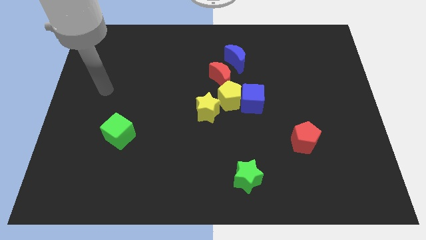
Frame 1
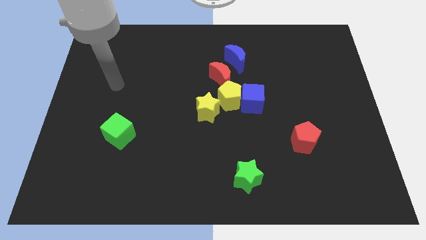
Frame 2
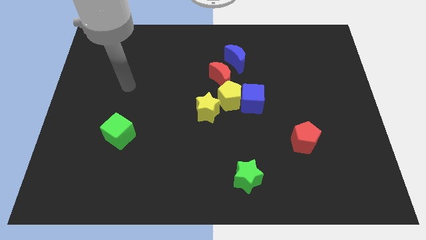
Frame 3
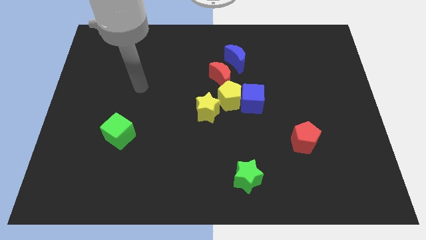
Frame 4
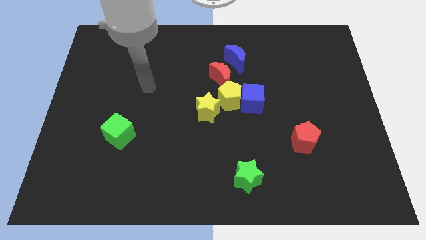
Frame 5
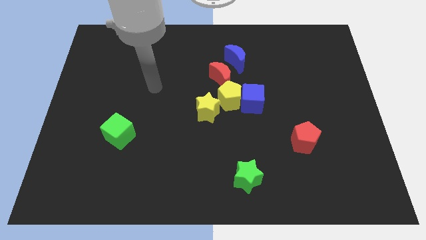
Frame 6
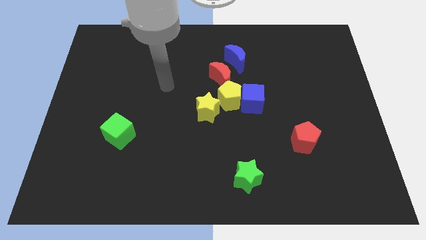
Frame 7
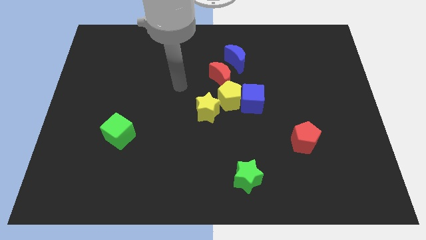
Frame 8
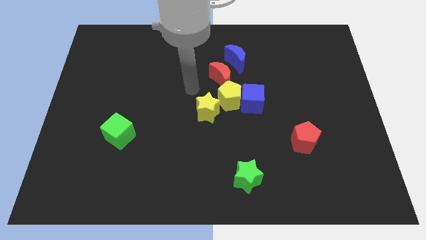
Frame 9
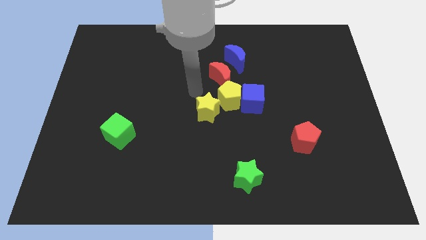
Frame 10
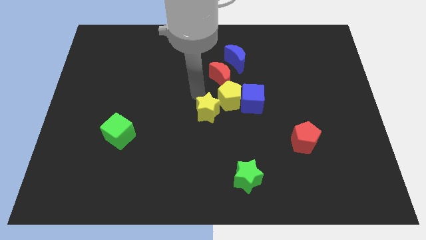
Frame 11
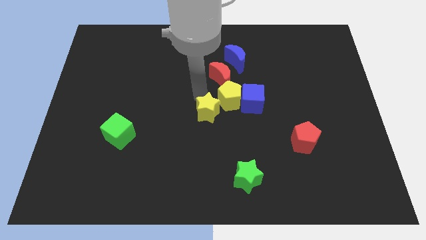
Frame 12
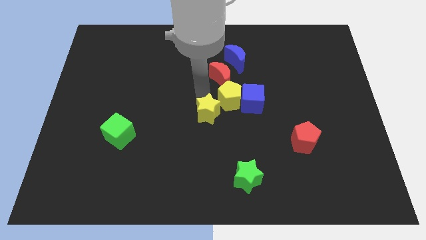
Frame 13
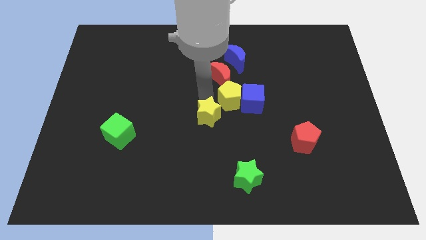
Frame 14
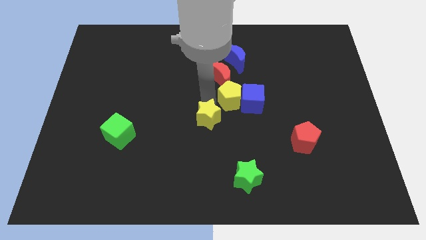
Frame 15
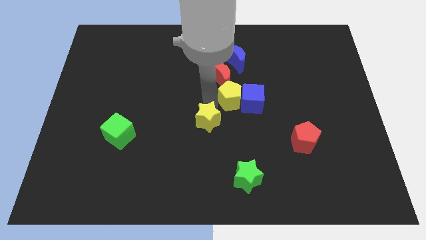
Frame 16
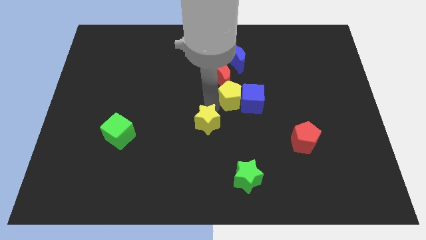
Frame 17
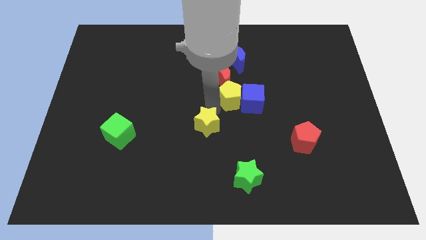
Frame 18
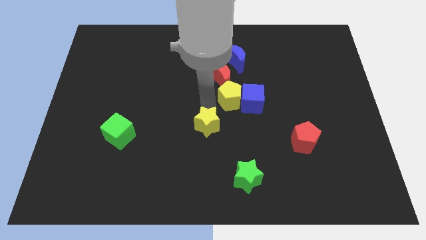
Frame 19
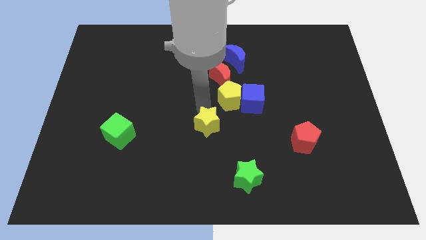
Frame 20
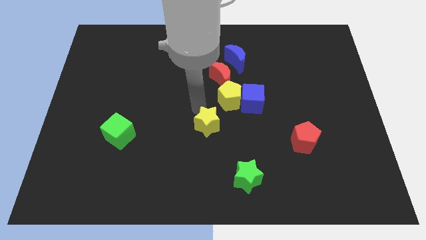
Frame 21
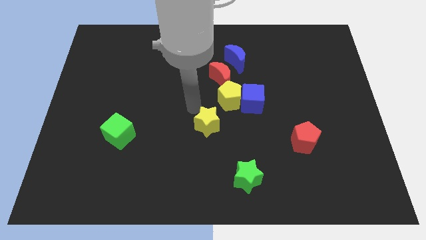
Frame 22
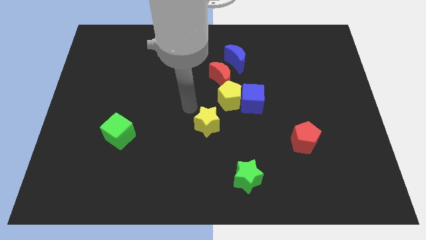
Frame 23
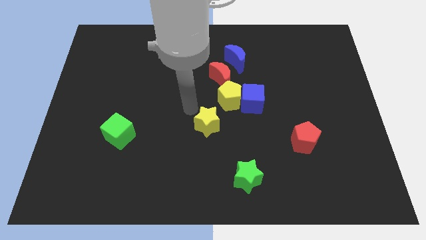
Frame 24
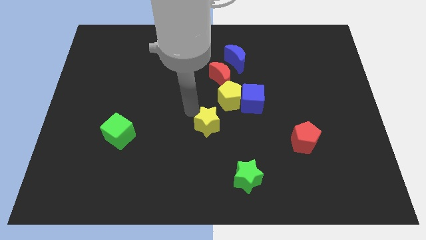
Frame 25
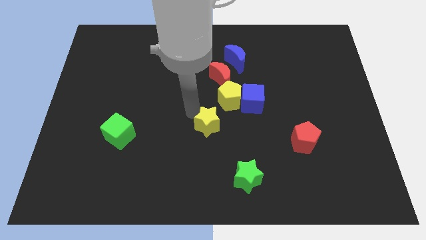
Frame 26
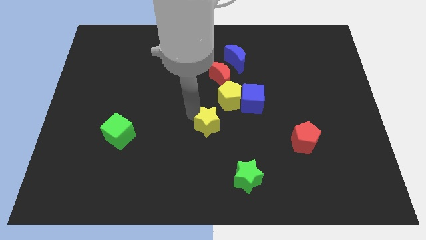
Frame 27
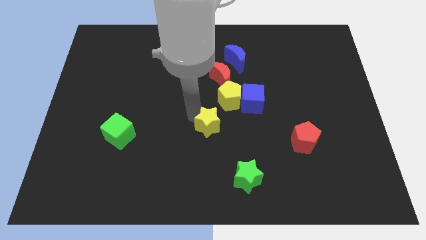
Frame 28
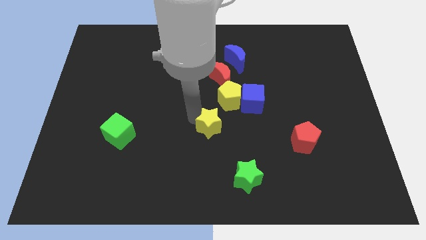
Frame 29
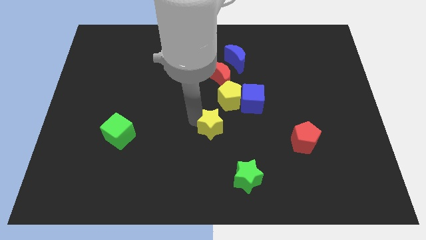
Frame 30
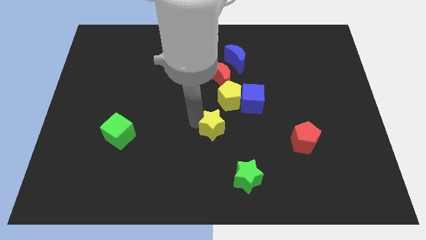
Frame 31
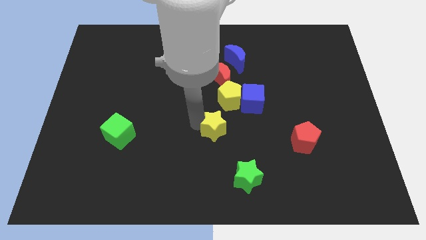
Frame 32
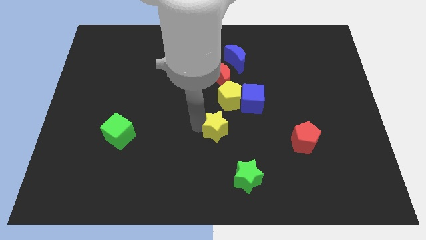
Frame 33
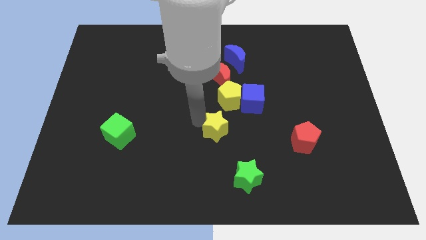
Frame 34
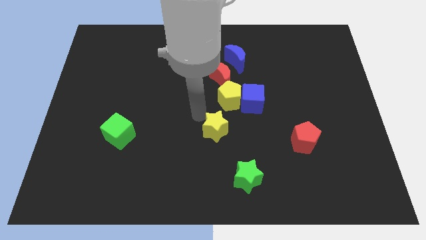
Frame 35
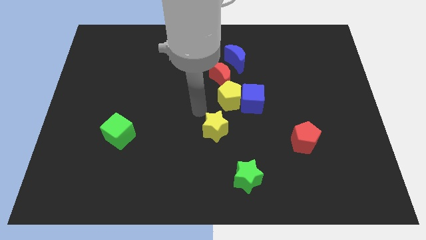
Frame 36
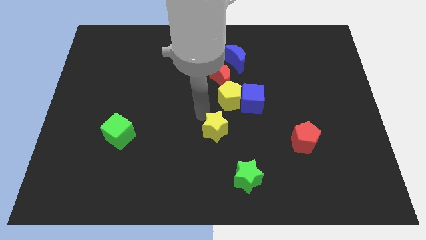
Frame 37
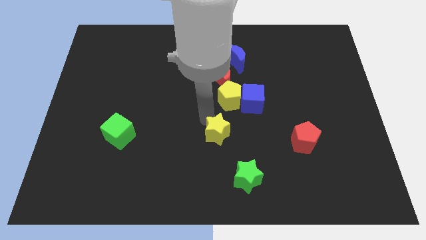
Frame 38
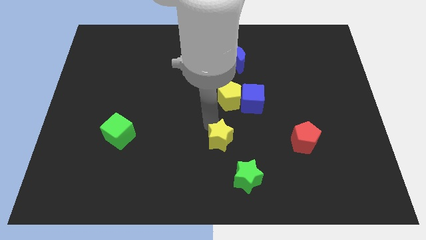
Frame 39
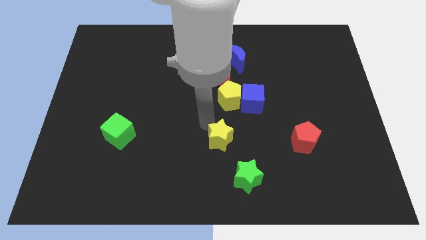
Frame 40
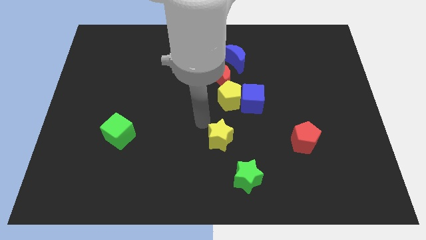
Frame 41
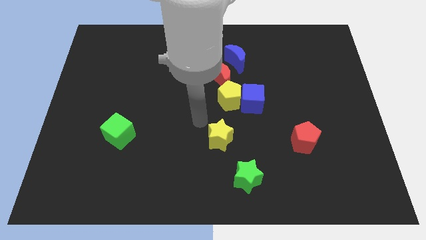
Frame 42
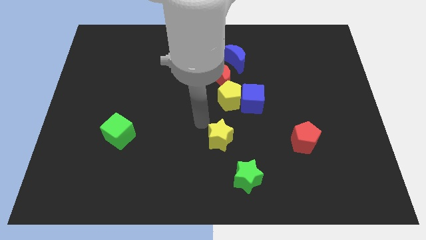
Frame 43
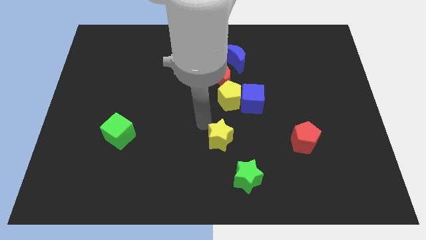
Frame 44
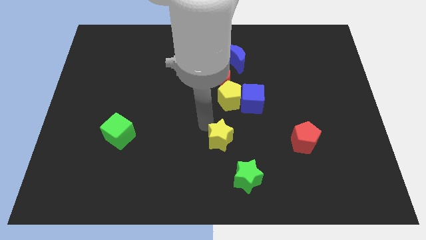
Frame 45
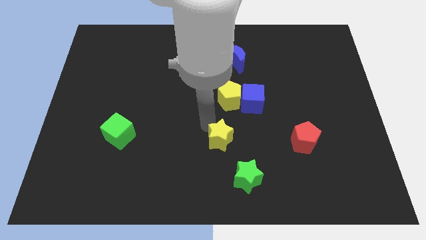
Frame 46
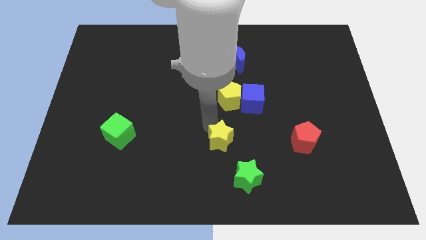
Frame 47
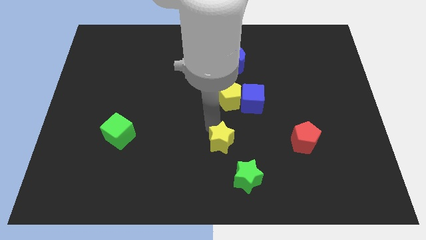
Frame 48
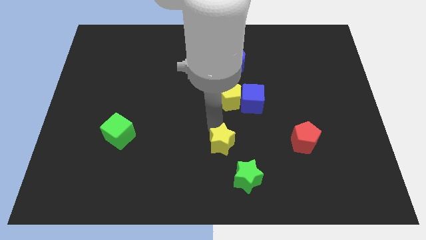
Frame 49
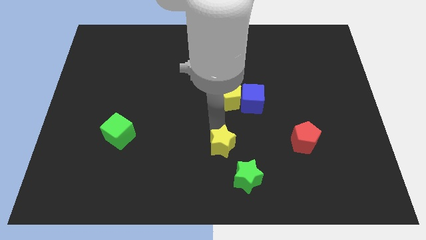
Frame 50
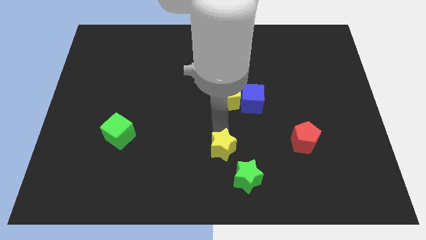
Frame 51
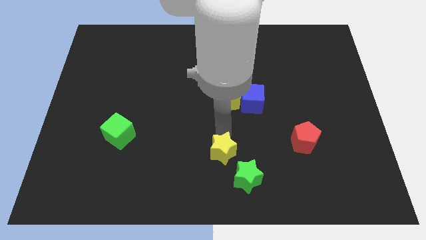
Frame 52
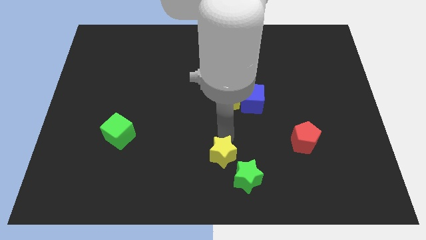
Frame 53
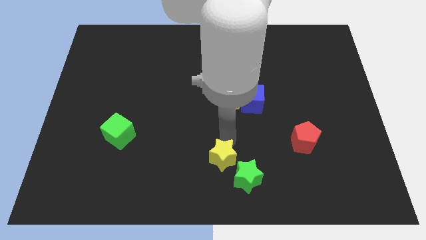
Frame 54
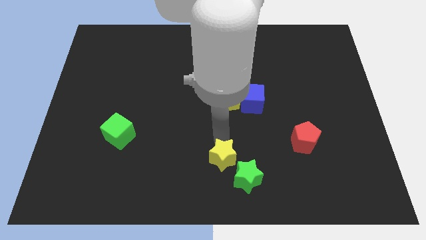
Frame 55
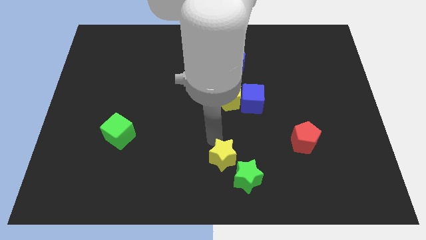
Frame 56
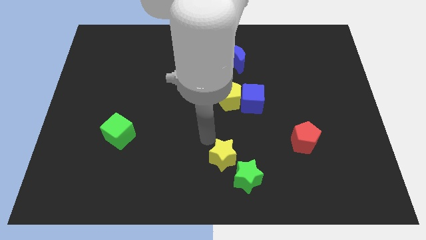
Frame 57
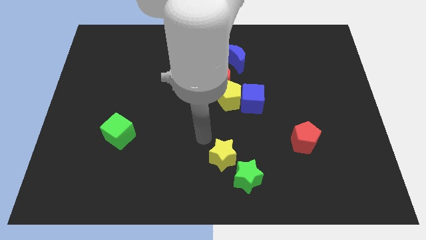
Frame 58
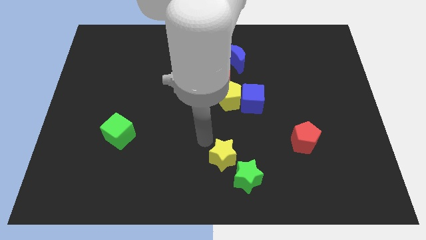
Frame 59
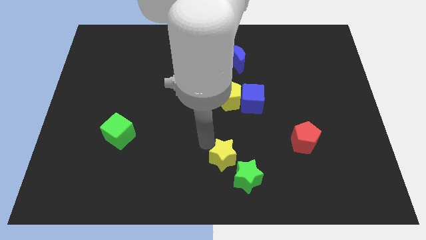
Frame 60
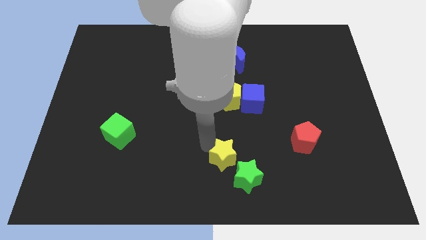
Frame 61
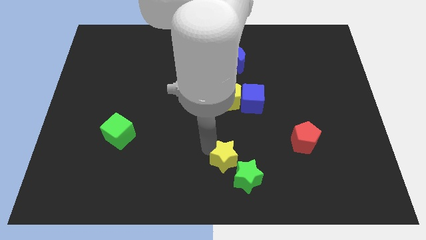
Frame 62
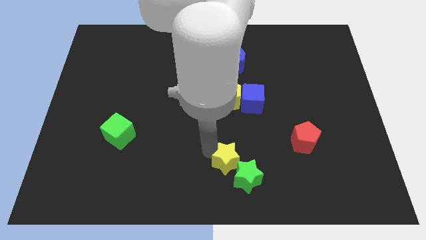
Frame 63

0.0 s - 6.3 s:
move the yellow star to the green star
